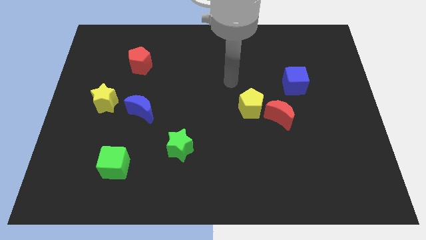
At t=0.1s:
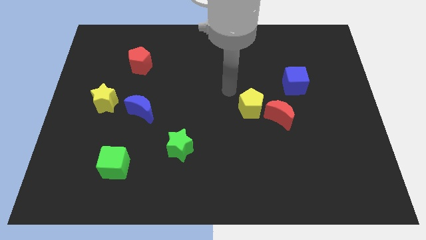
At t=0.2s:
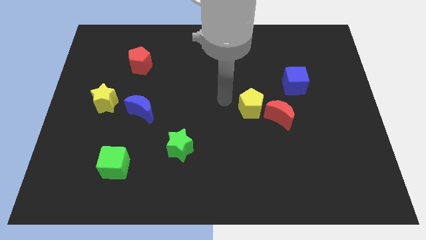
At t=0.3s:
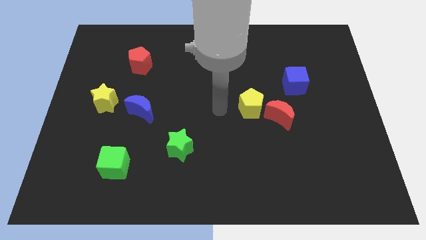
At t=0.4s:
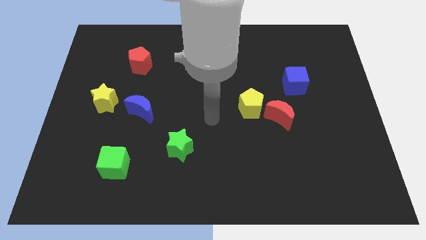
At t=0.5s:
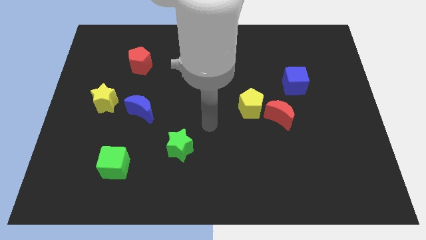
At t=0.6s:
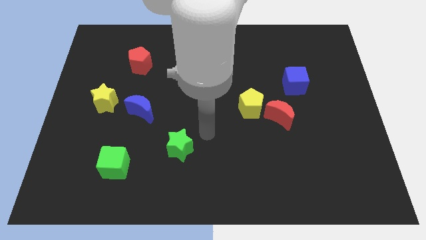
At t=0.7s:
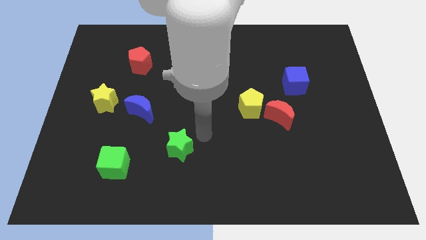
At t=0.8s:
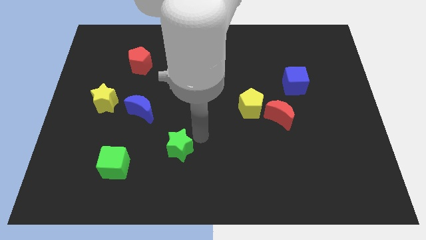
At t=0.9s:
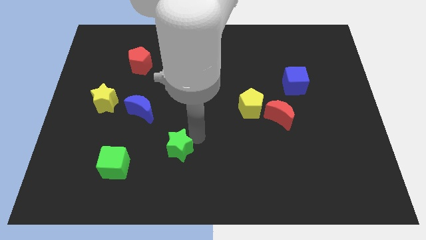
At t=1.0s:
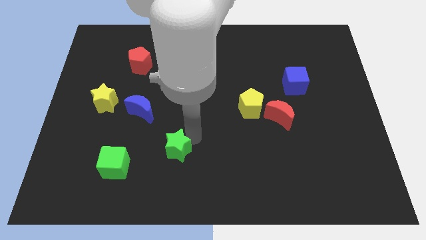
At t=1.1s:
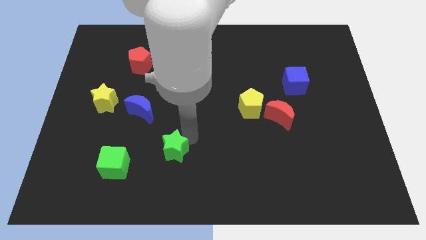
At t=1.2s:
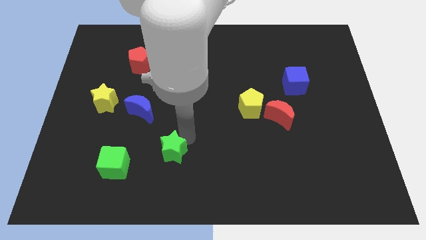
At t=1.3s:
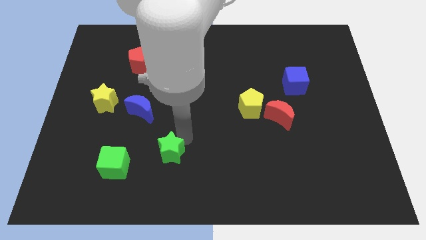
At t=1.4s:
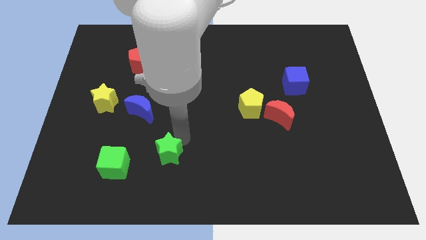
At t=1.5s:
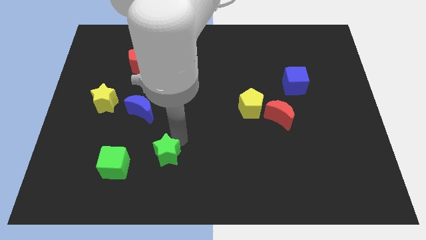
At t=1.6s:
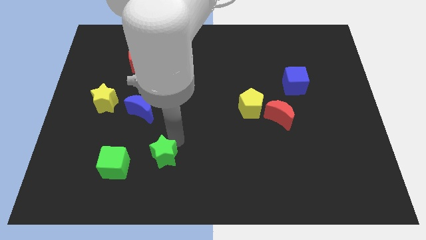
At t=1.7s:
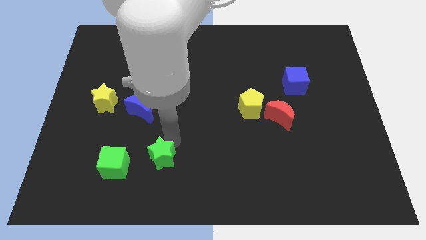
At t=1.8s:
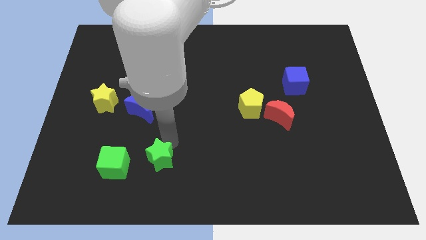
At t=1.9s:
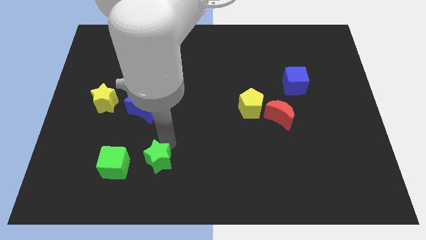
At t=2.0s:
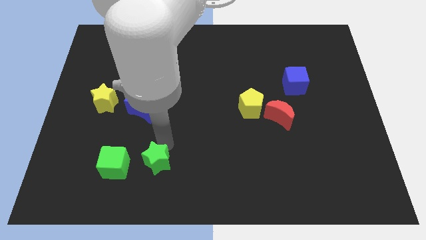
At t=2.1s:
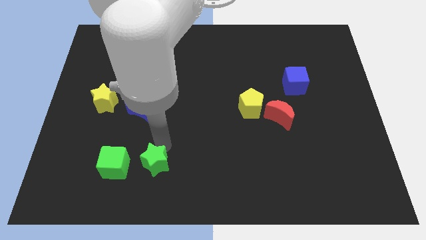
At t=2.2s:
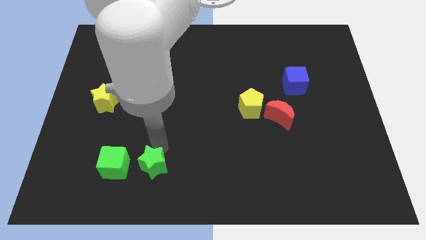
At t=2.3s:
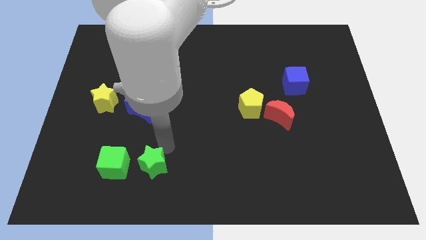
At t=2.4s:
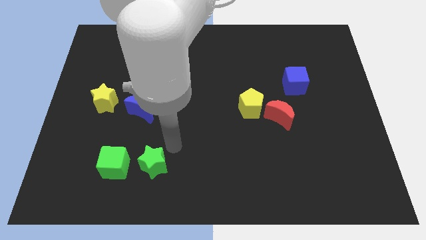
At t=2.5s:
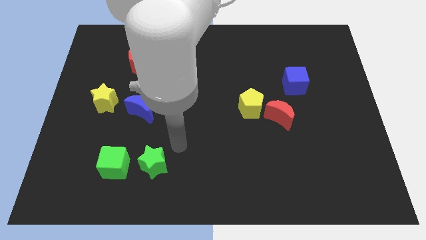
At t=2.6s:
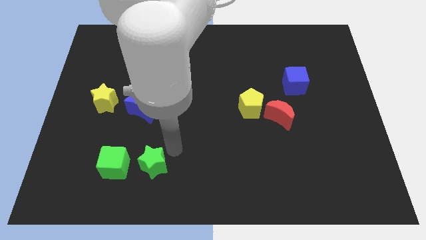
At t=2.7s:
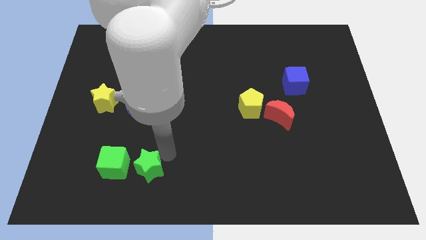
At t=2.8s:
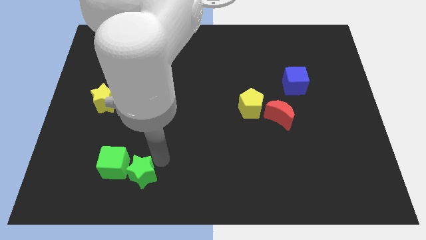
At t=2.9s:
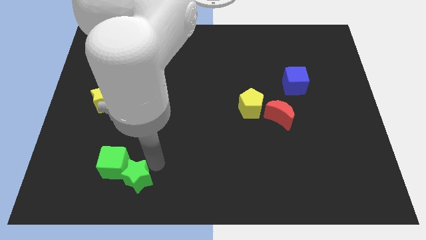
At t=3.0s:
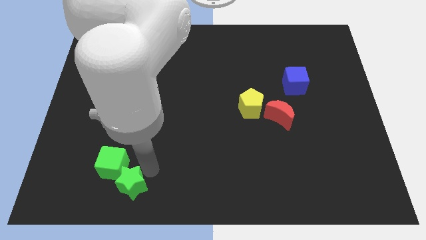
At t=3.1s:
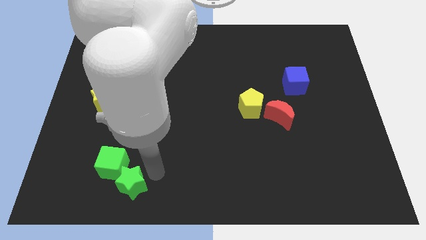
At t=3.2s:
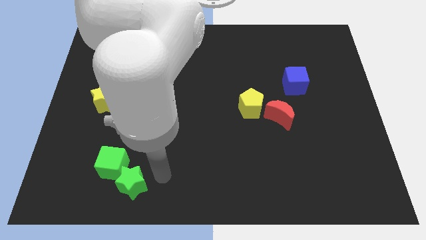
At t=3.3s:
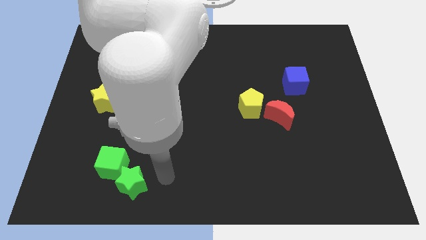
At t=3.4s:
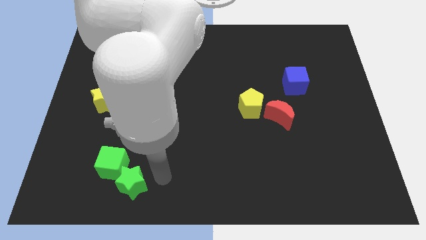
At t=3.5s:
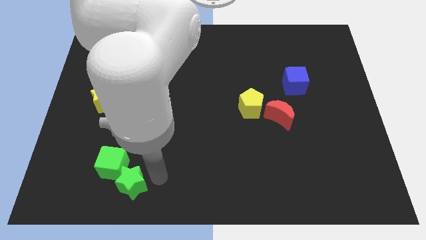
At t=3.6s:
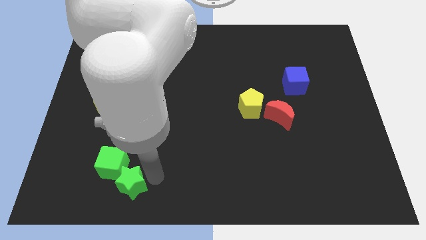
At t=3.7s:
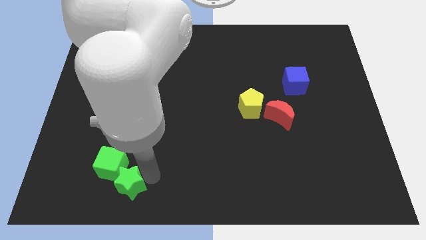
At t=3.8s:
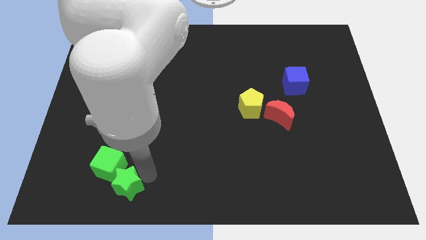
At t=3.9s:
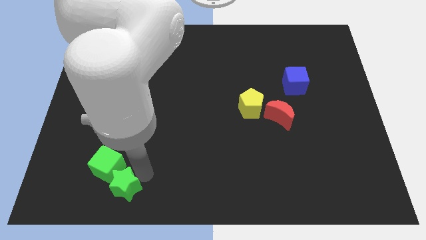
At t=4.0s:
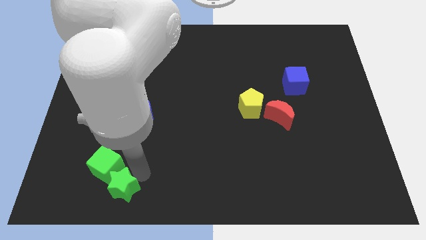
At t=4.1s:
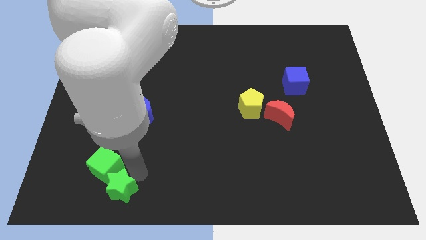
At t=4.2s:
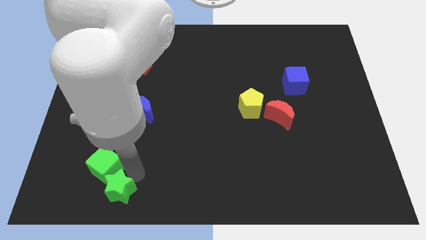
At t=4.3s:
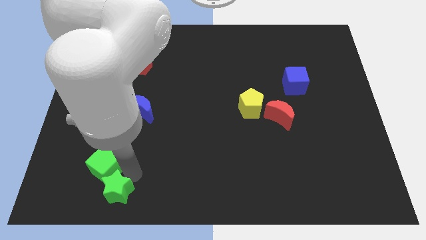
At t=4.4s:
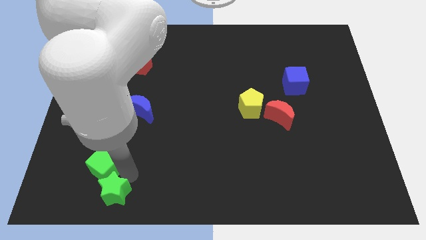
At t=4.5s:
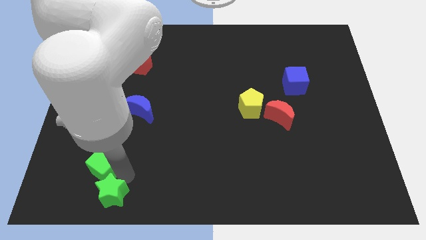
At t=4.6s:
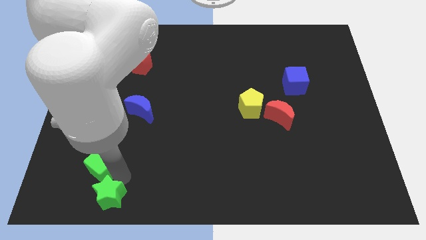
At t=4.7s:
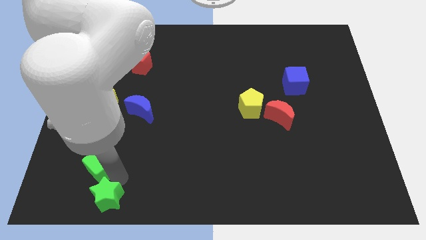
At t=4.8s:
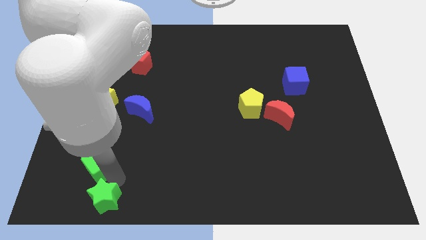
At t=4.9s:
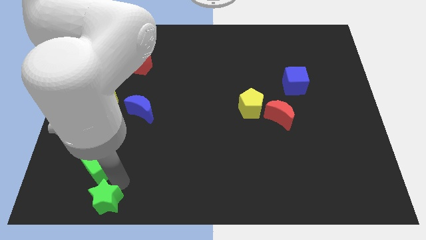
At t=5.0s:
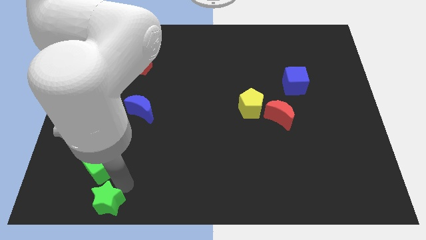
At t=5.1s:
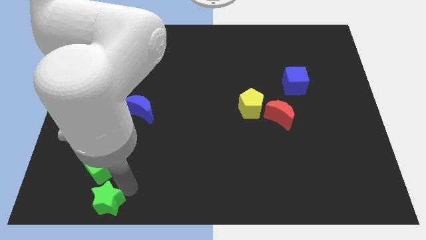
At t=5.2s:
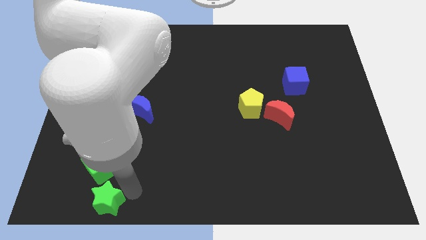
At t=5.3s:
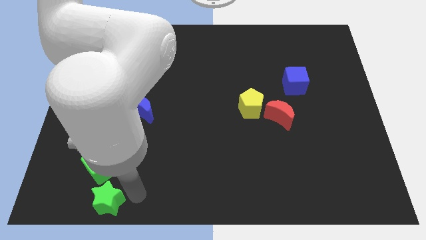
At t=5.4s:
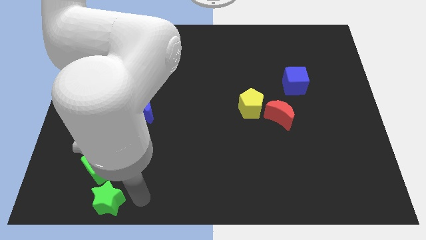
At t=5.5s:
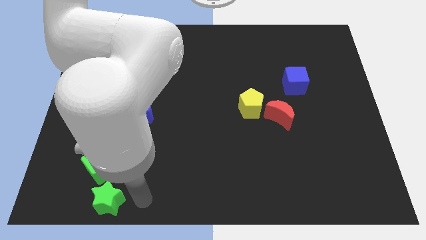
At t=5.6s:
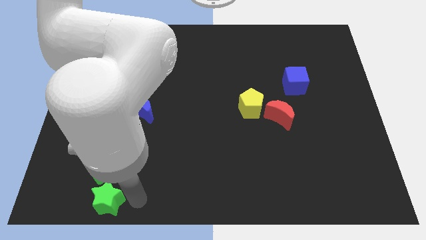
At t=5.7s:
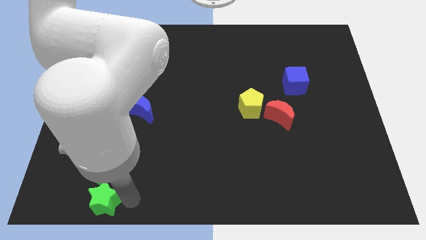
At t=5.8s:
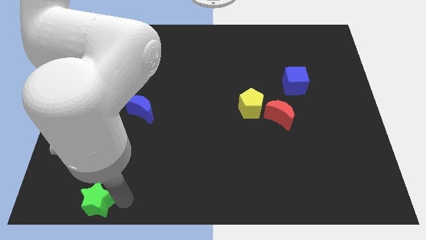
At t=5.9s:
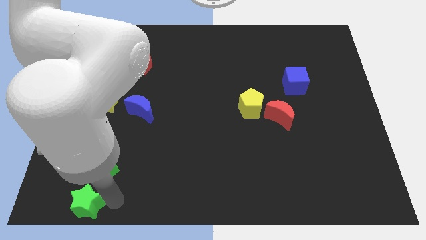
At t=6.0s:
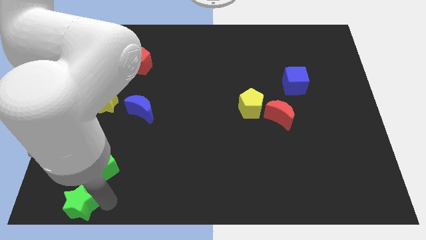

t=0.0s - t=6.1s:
move the green star to the bottom left
